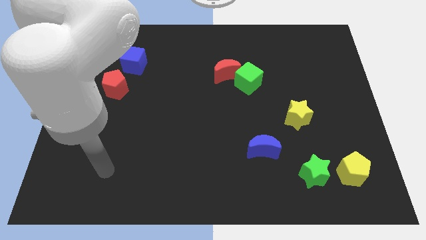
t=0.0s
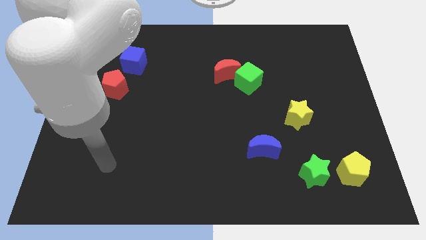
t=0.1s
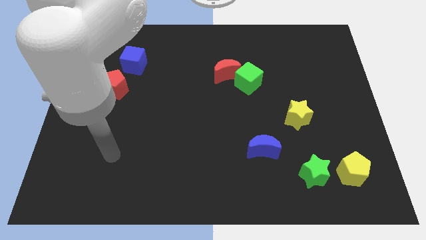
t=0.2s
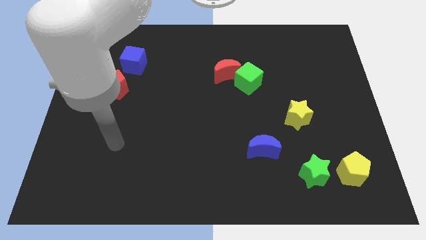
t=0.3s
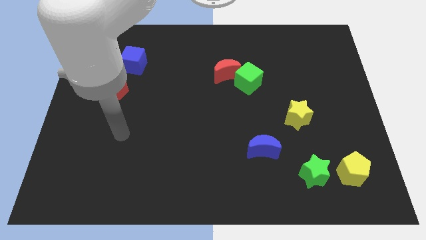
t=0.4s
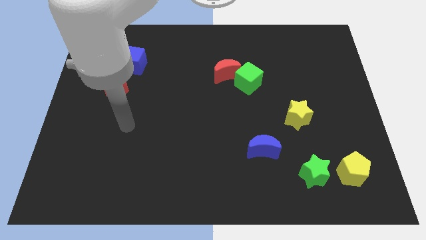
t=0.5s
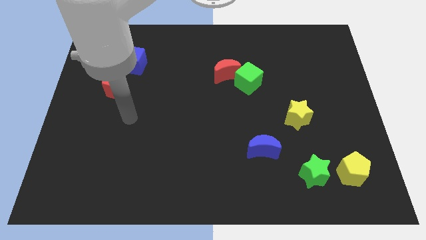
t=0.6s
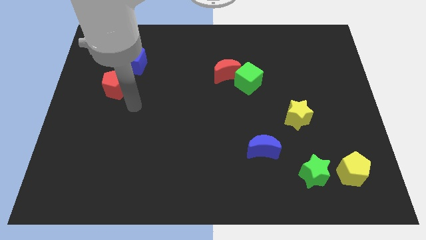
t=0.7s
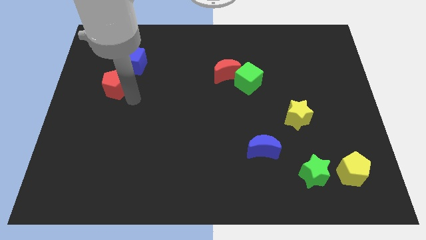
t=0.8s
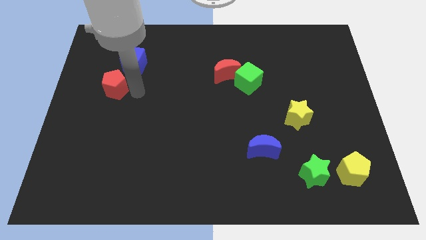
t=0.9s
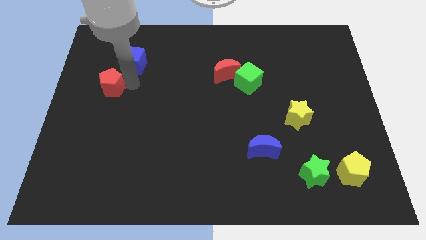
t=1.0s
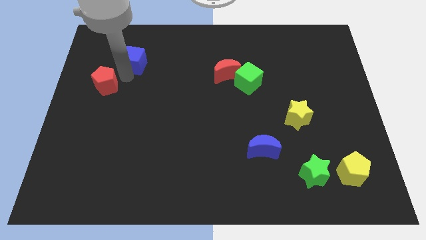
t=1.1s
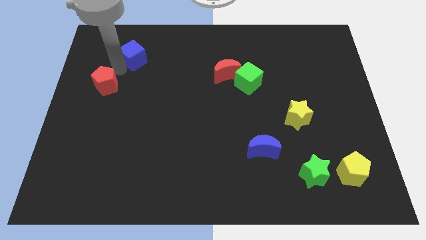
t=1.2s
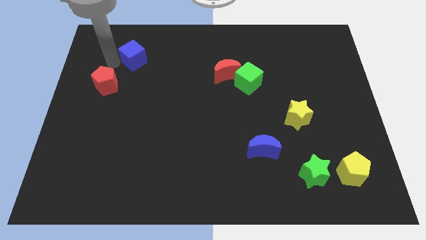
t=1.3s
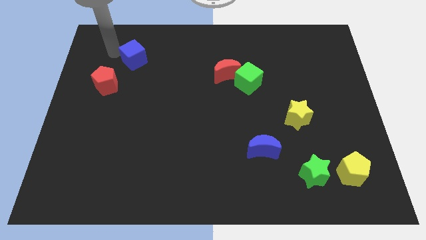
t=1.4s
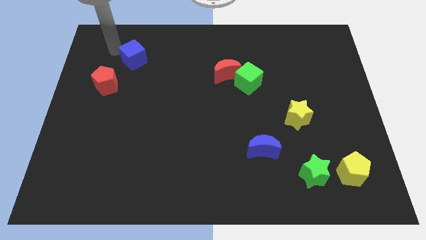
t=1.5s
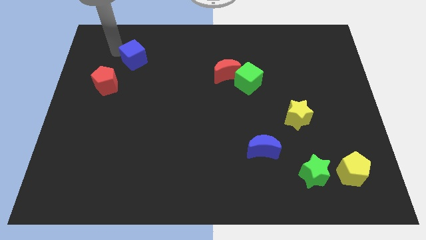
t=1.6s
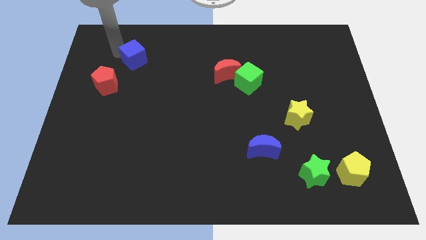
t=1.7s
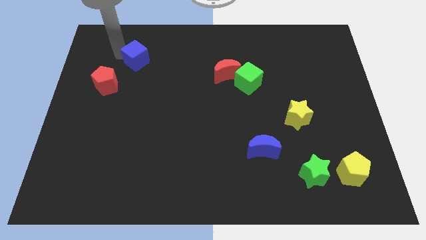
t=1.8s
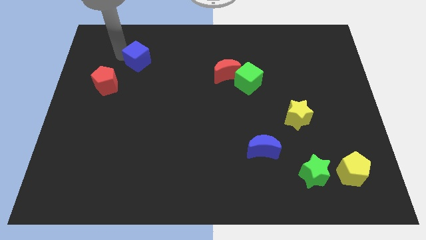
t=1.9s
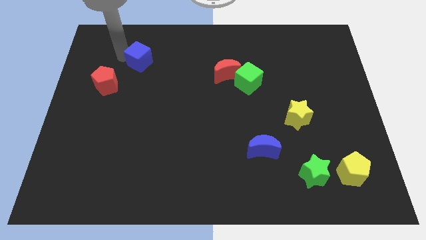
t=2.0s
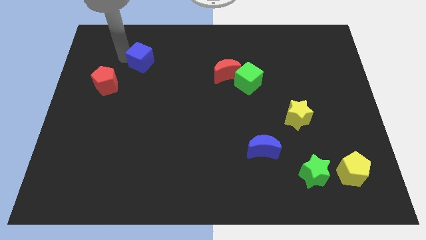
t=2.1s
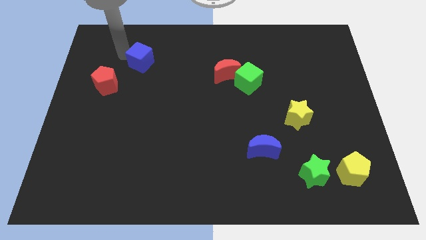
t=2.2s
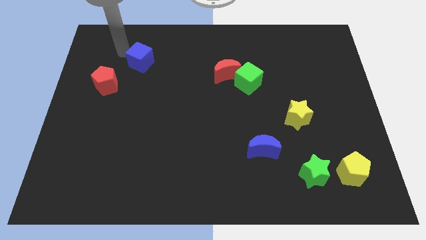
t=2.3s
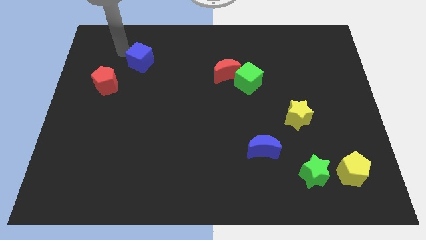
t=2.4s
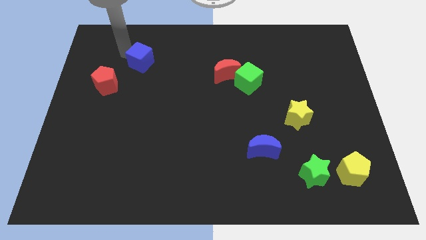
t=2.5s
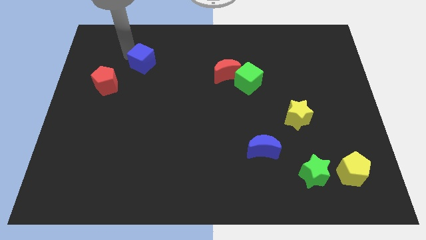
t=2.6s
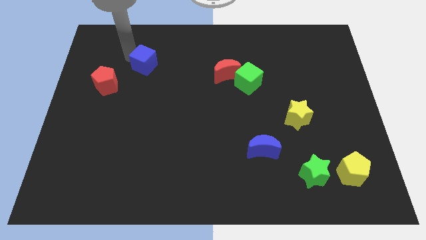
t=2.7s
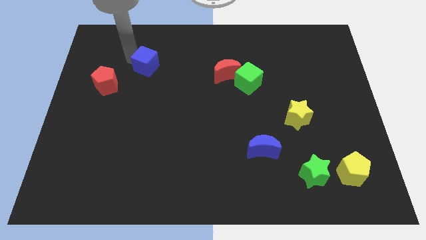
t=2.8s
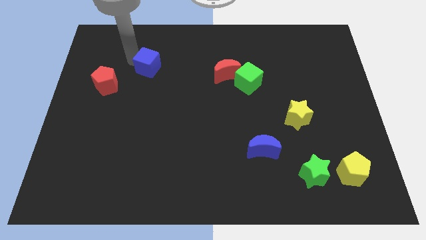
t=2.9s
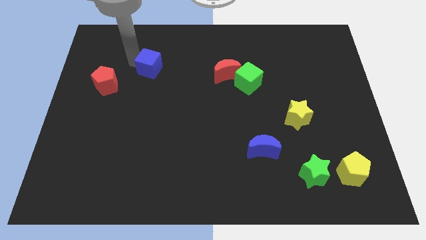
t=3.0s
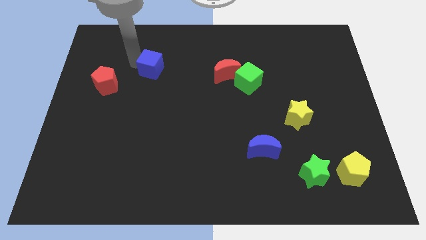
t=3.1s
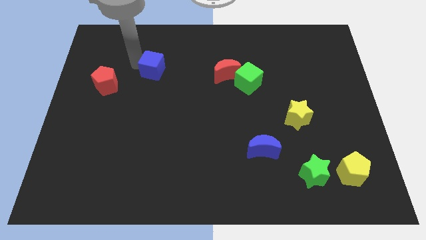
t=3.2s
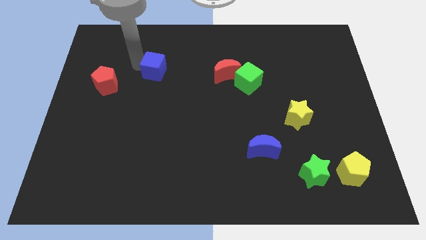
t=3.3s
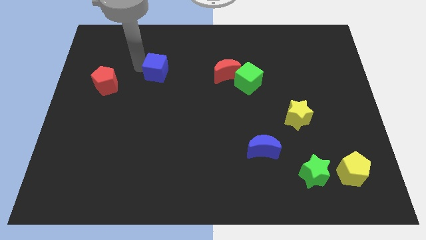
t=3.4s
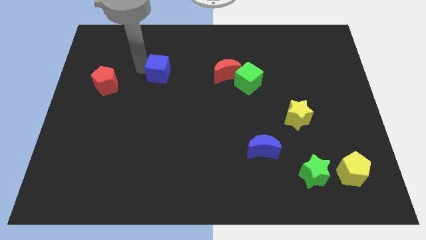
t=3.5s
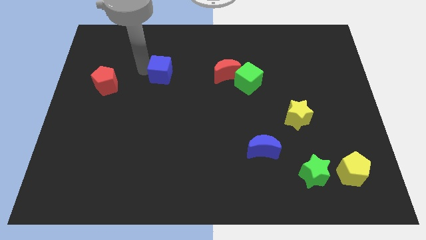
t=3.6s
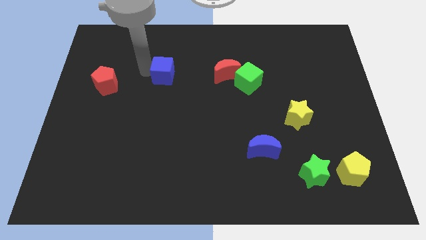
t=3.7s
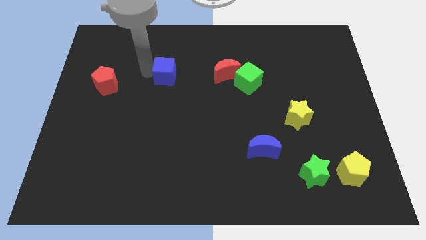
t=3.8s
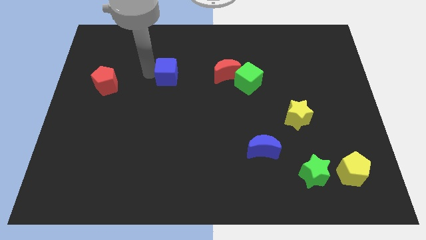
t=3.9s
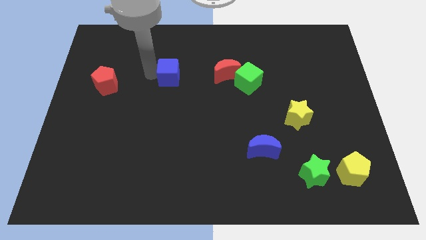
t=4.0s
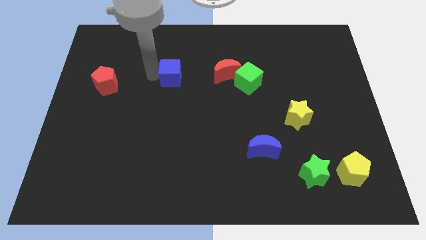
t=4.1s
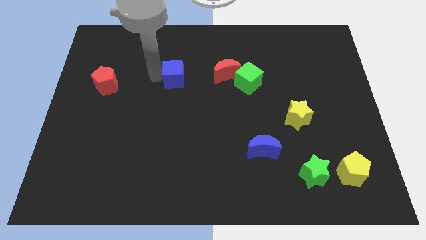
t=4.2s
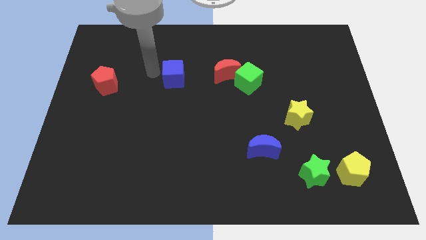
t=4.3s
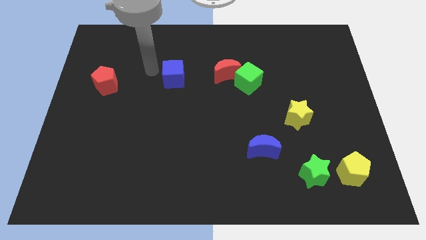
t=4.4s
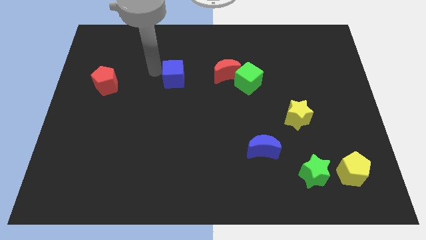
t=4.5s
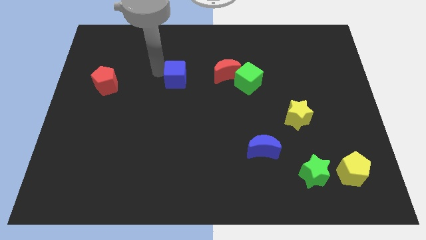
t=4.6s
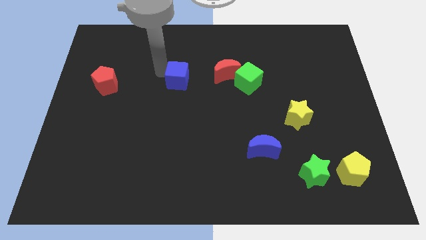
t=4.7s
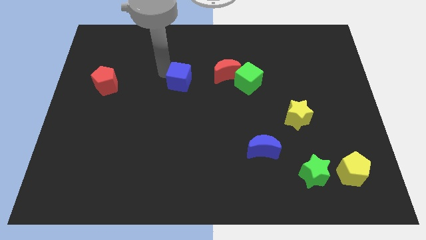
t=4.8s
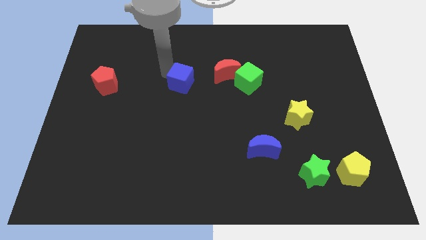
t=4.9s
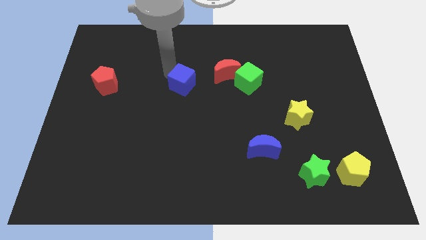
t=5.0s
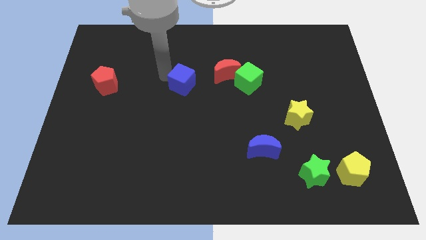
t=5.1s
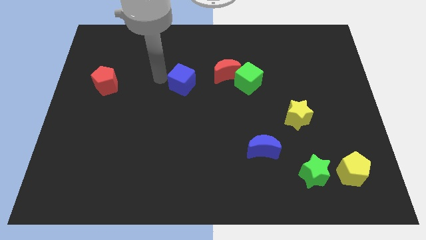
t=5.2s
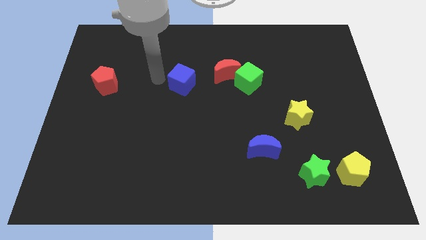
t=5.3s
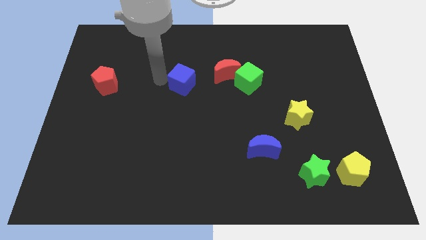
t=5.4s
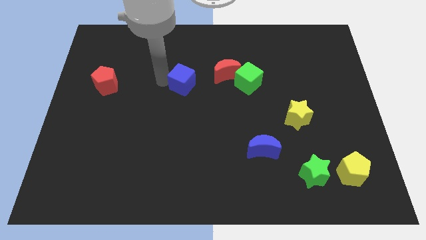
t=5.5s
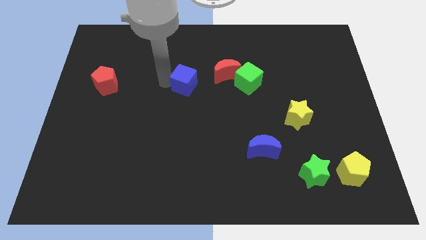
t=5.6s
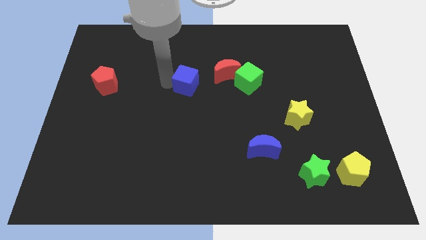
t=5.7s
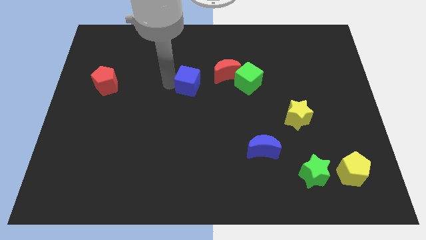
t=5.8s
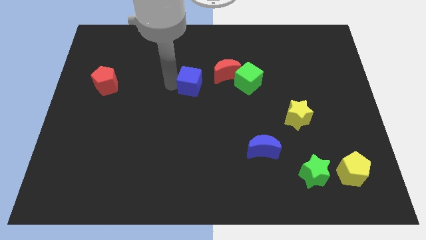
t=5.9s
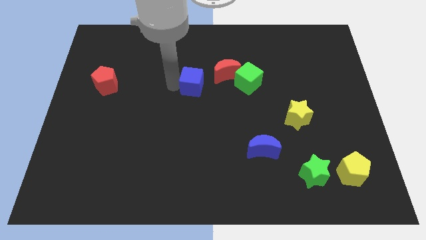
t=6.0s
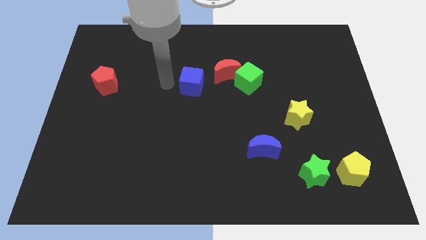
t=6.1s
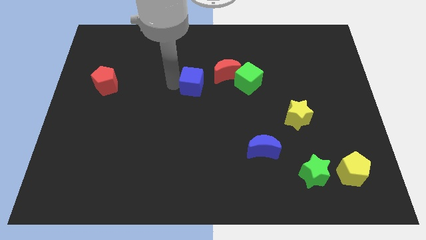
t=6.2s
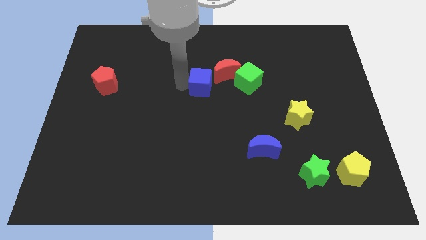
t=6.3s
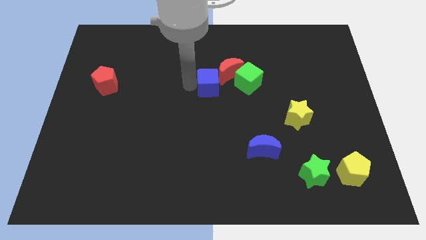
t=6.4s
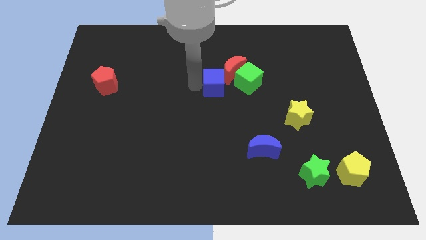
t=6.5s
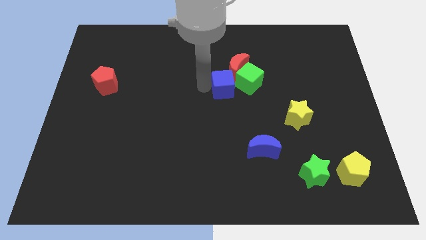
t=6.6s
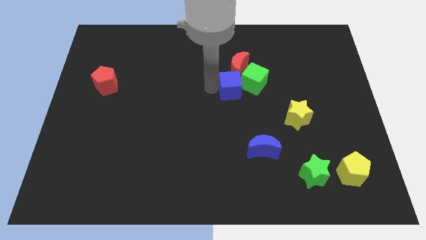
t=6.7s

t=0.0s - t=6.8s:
move the blue cube close to the green cube

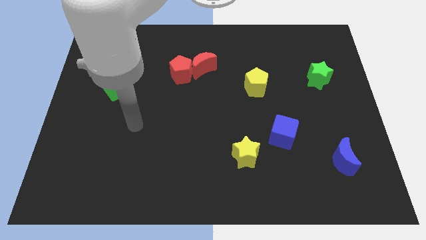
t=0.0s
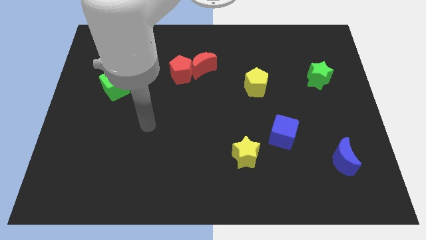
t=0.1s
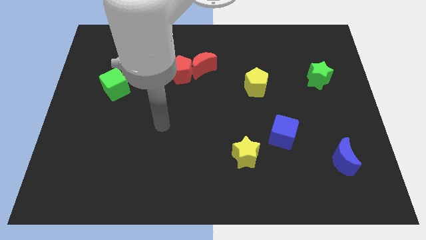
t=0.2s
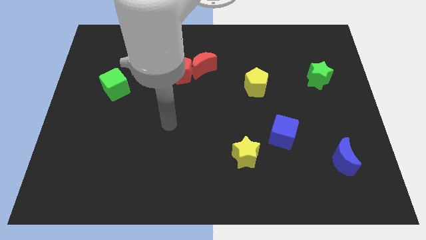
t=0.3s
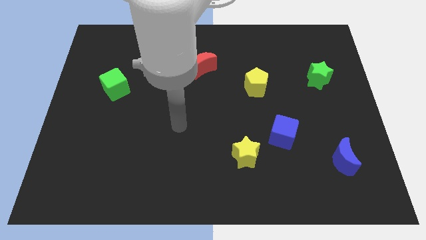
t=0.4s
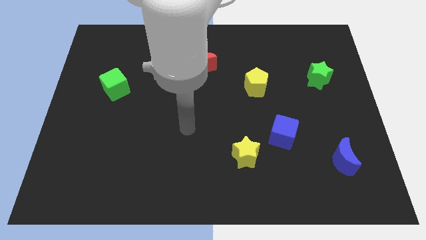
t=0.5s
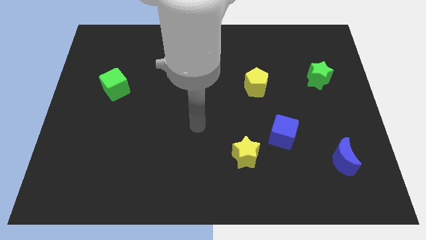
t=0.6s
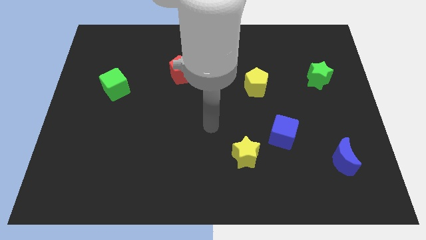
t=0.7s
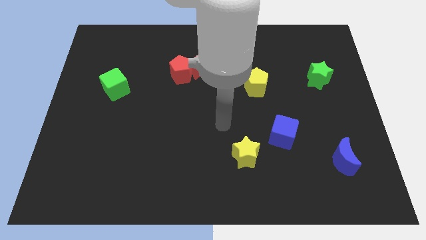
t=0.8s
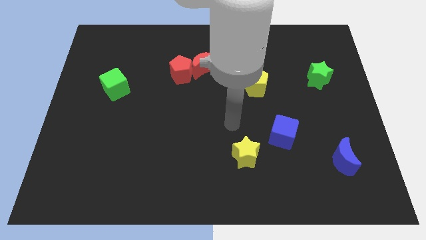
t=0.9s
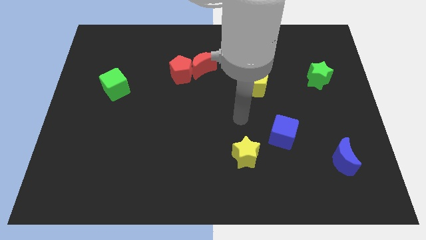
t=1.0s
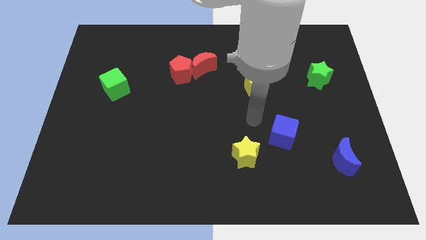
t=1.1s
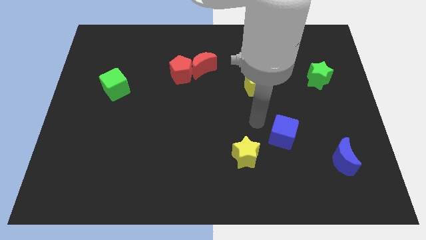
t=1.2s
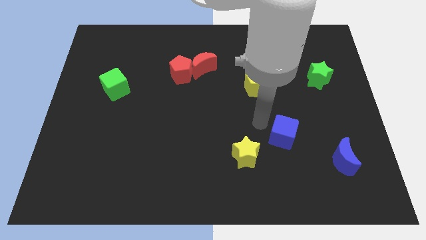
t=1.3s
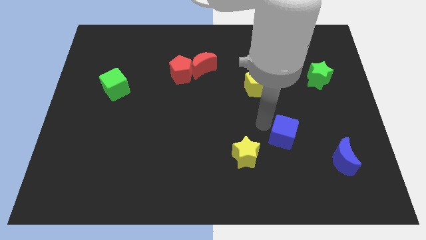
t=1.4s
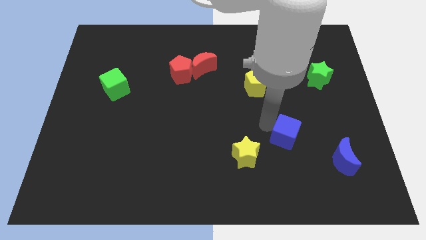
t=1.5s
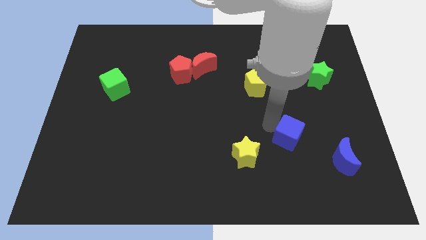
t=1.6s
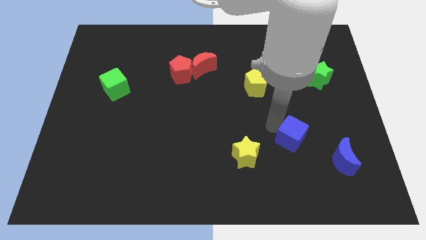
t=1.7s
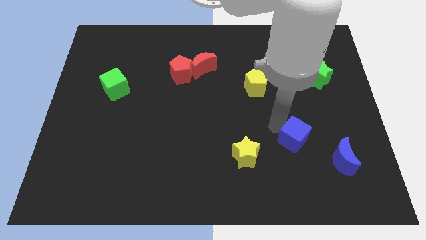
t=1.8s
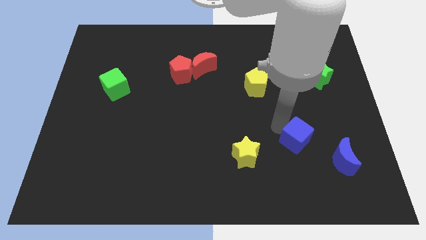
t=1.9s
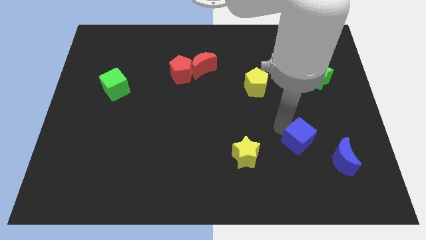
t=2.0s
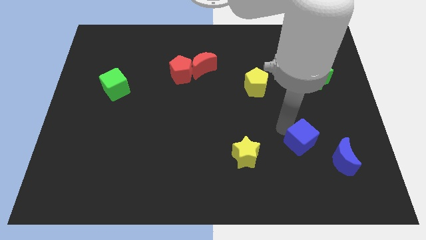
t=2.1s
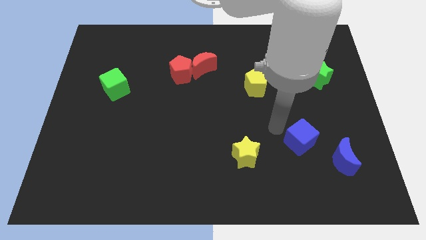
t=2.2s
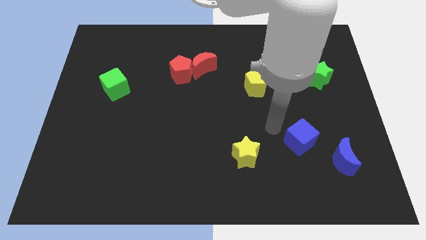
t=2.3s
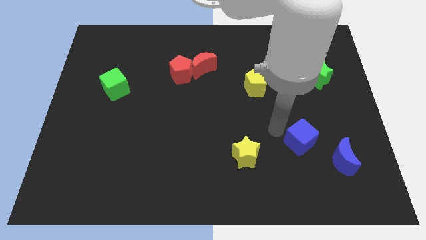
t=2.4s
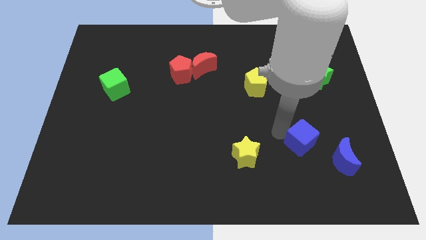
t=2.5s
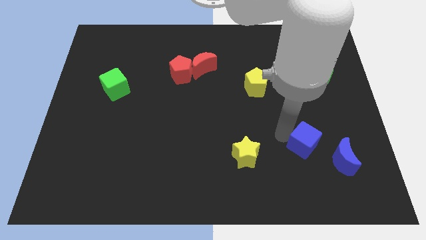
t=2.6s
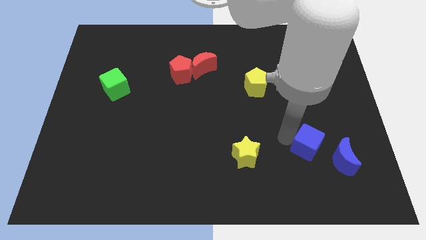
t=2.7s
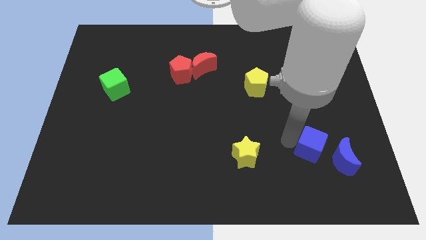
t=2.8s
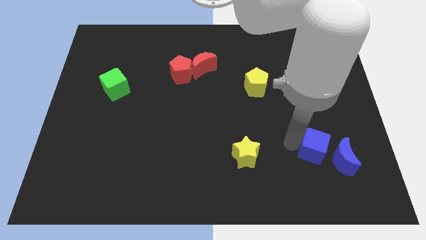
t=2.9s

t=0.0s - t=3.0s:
put the blue cube towards the blue moon
